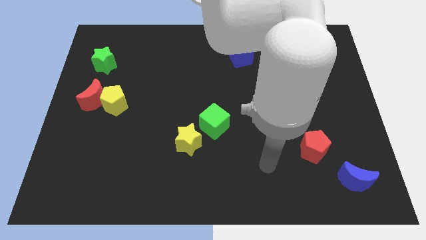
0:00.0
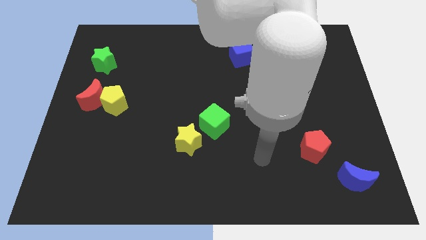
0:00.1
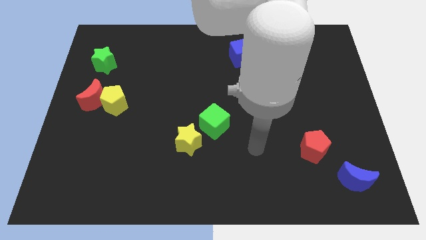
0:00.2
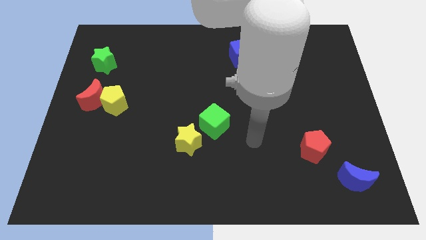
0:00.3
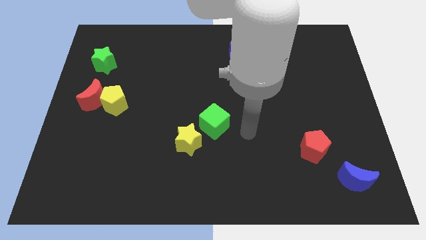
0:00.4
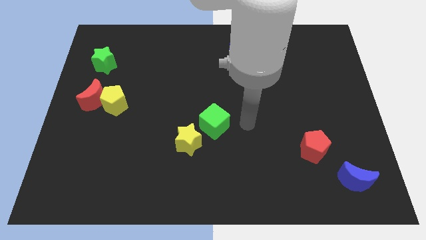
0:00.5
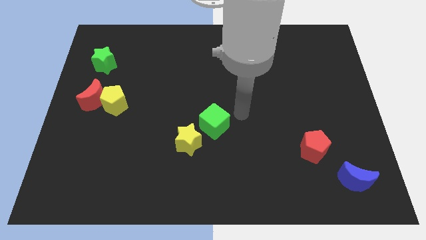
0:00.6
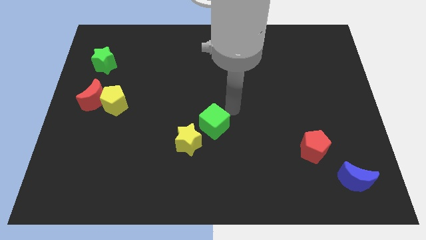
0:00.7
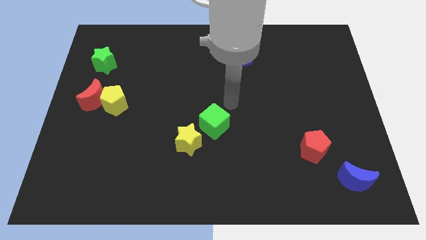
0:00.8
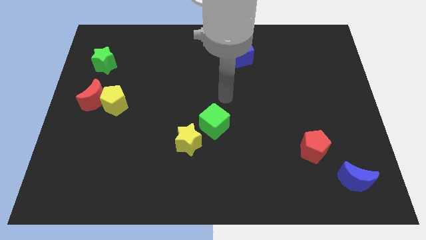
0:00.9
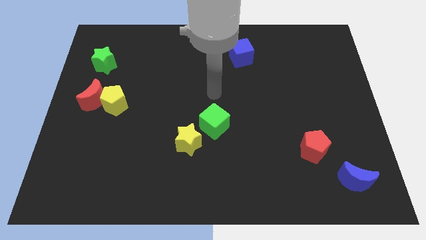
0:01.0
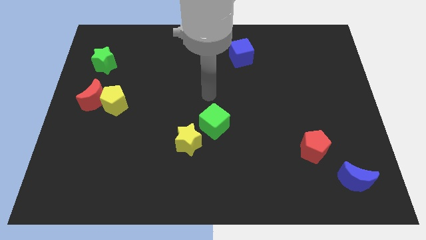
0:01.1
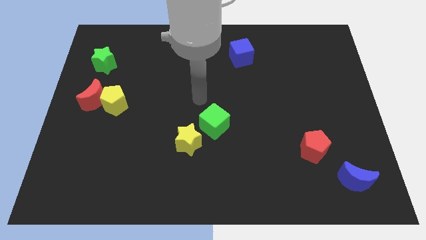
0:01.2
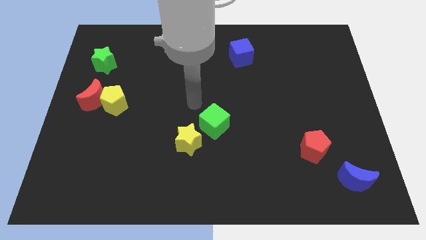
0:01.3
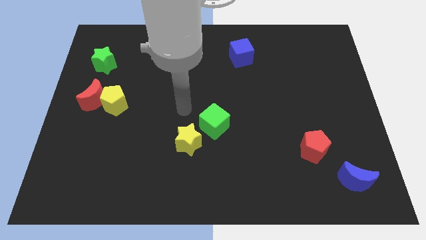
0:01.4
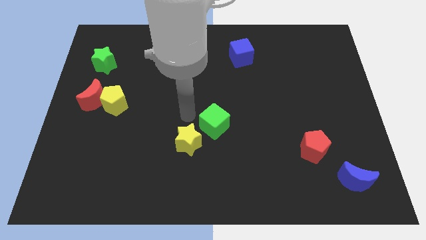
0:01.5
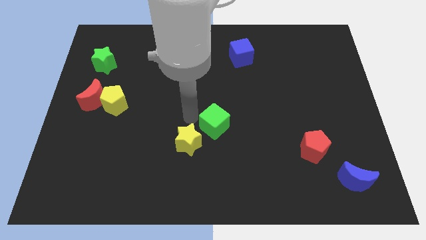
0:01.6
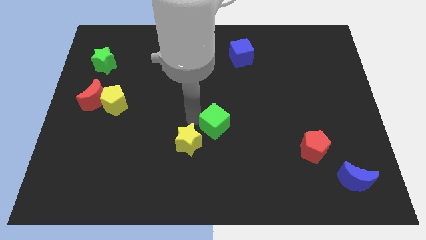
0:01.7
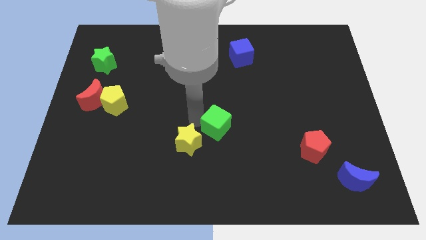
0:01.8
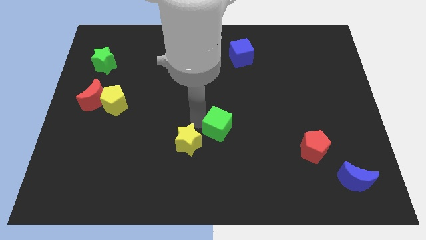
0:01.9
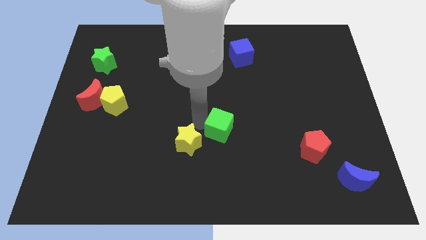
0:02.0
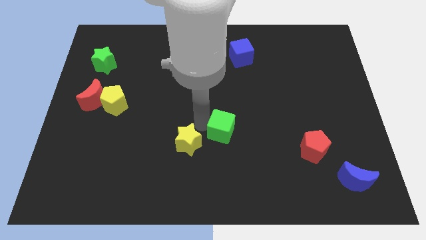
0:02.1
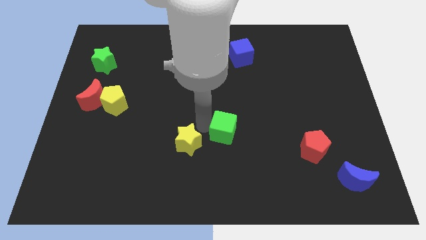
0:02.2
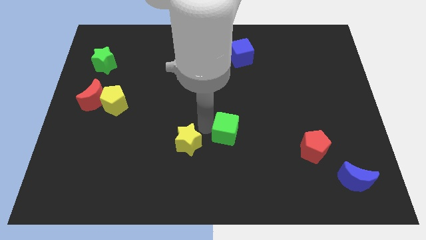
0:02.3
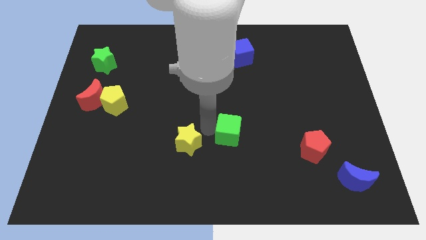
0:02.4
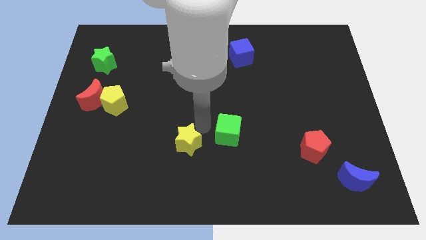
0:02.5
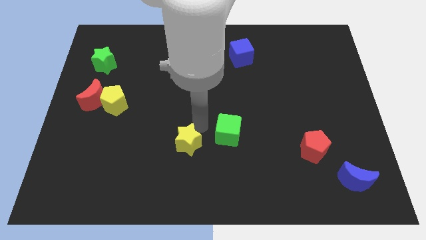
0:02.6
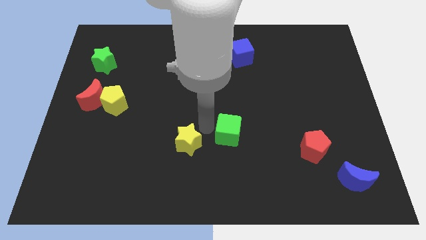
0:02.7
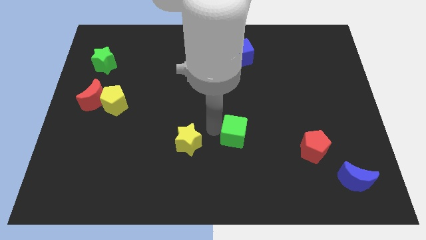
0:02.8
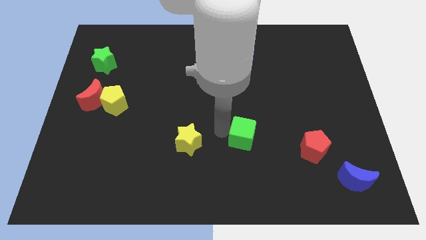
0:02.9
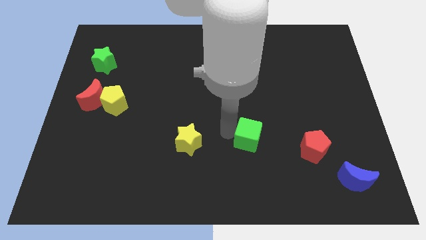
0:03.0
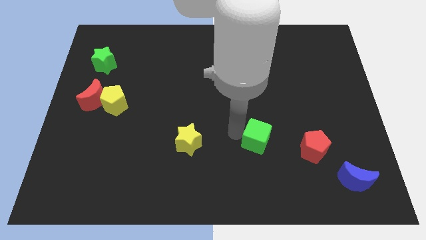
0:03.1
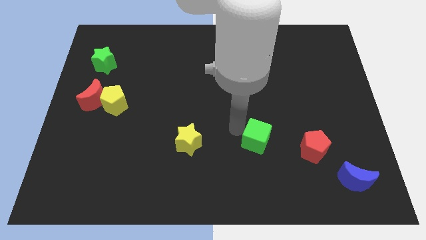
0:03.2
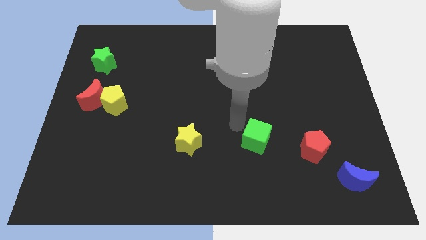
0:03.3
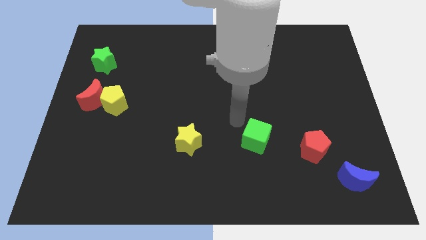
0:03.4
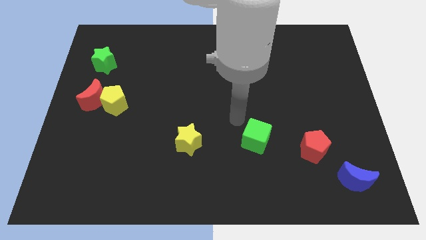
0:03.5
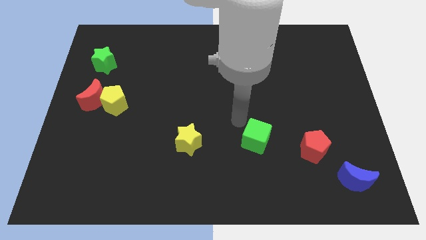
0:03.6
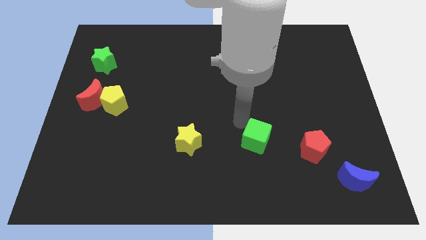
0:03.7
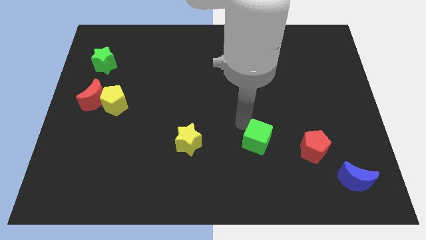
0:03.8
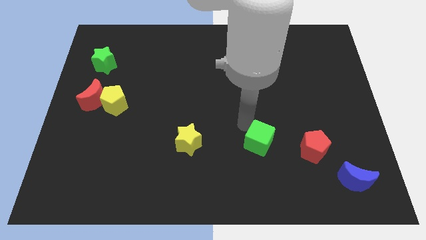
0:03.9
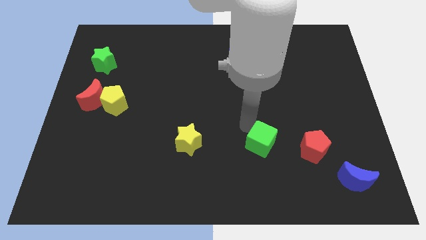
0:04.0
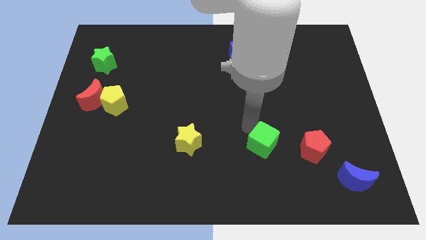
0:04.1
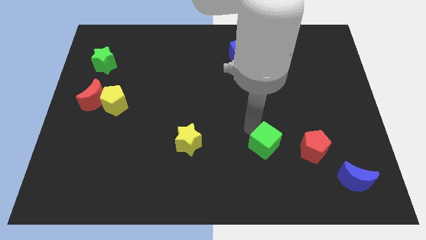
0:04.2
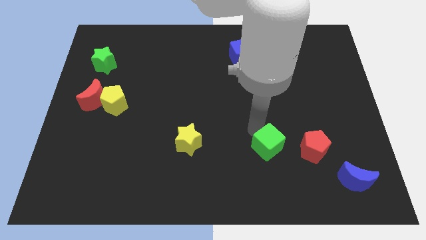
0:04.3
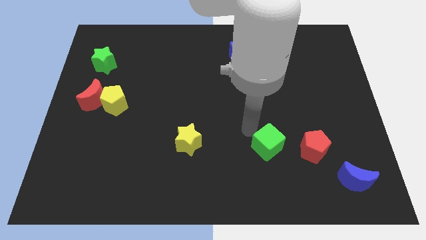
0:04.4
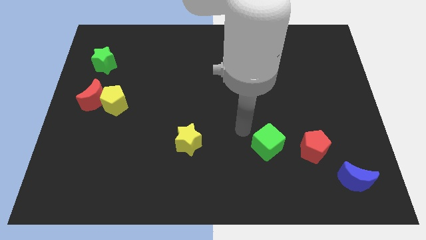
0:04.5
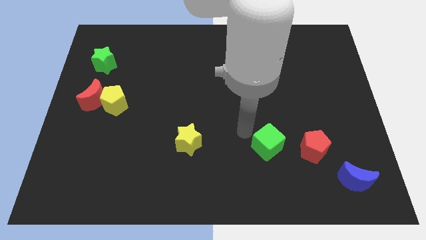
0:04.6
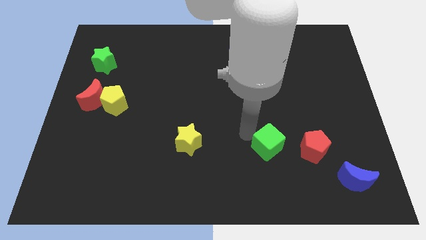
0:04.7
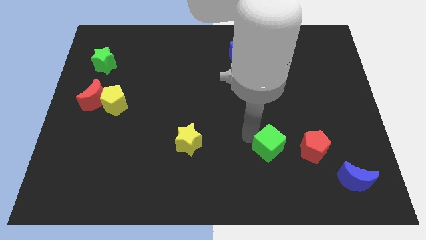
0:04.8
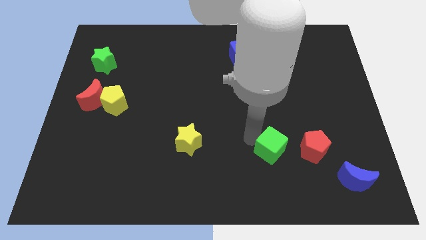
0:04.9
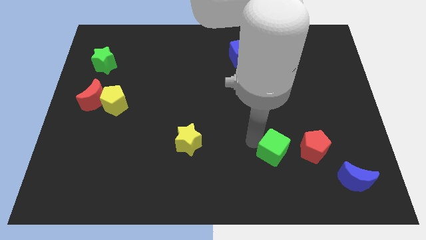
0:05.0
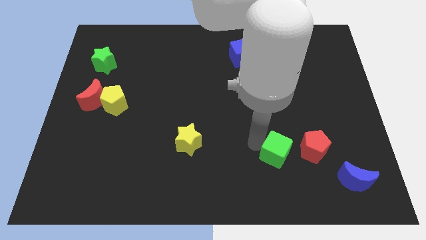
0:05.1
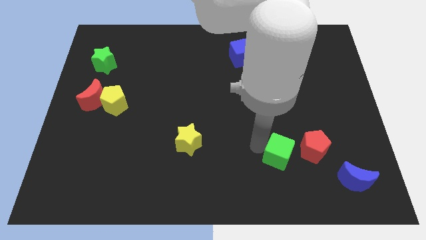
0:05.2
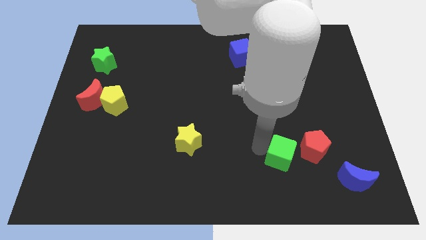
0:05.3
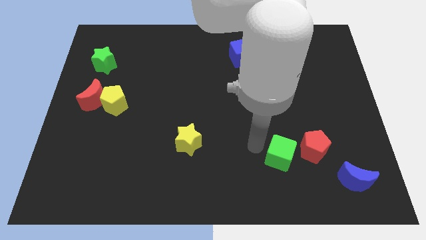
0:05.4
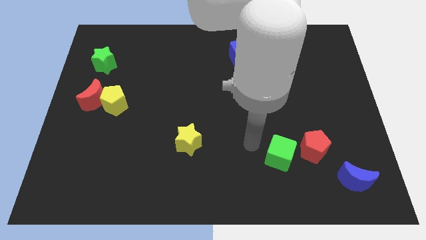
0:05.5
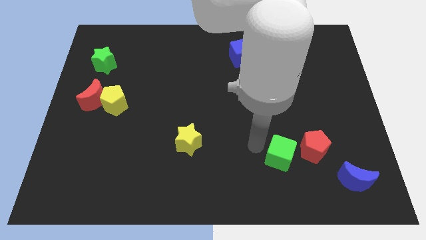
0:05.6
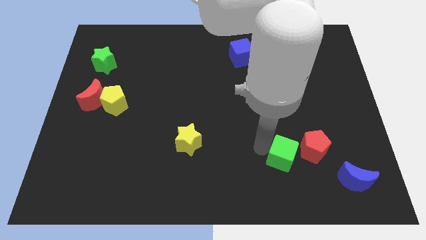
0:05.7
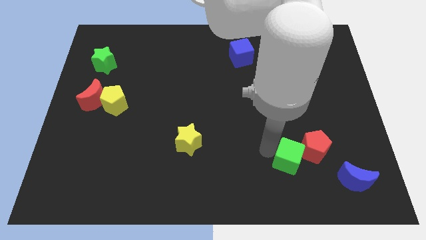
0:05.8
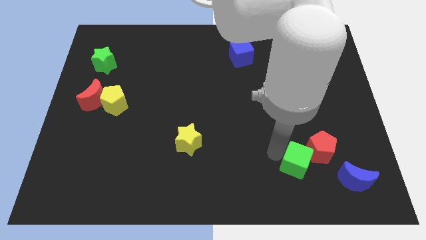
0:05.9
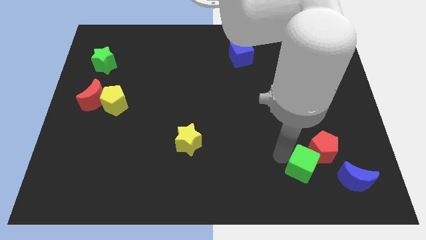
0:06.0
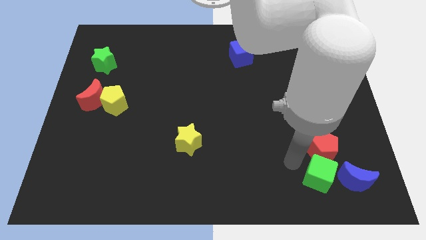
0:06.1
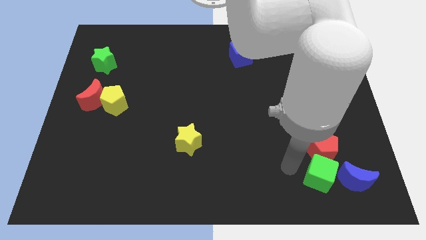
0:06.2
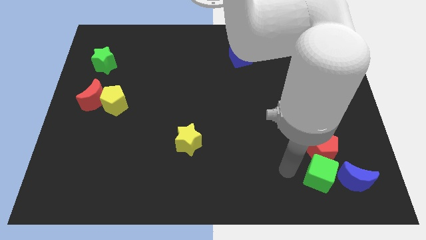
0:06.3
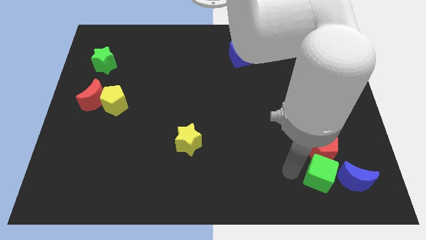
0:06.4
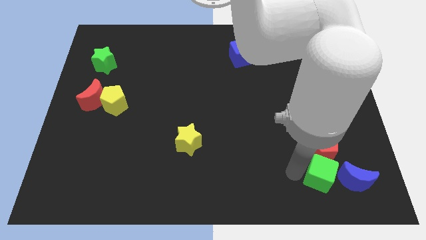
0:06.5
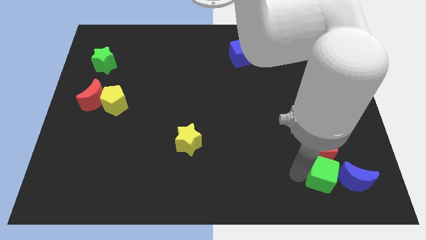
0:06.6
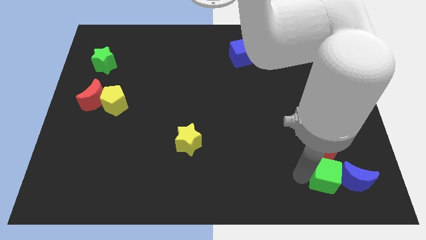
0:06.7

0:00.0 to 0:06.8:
slide the green cube close to the blue moon

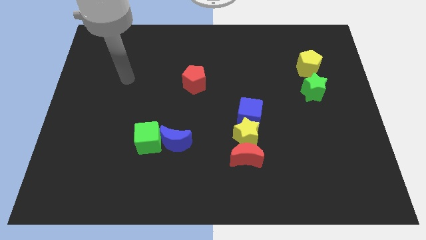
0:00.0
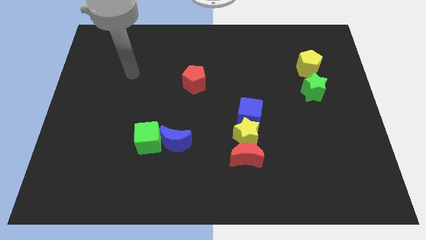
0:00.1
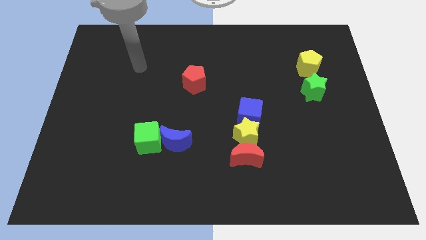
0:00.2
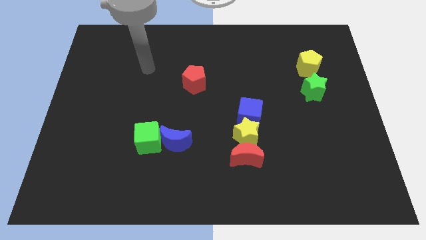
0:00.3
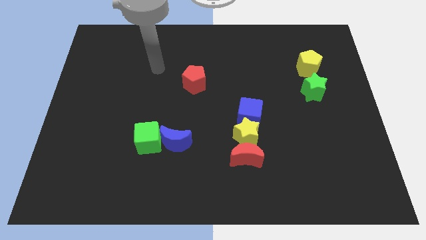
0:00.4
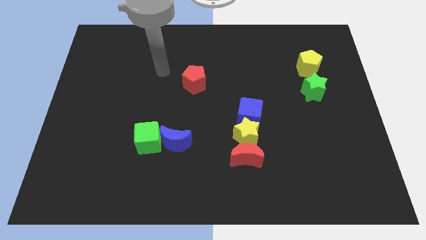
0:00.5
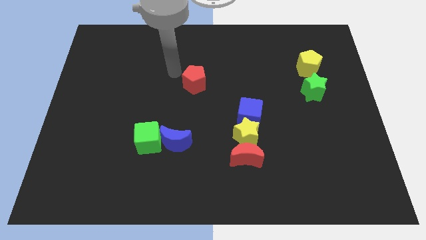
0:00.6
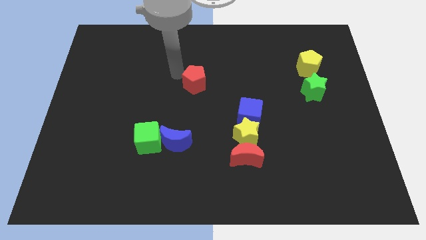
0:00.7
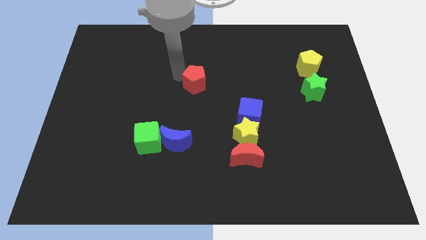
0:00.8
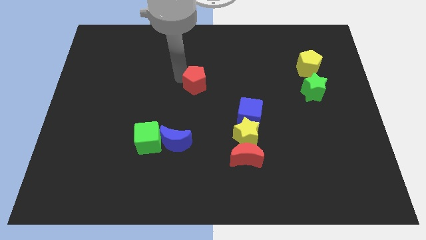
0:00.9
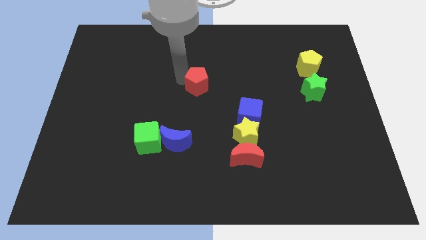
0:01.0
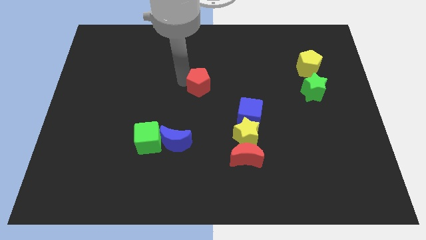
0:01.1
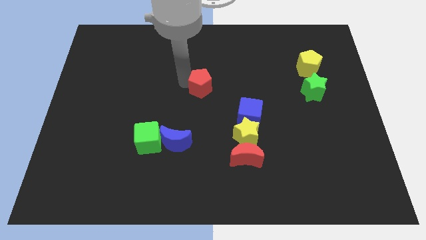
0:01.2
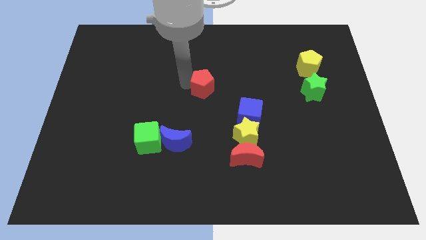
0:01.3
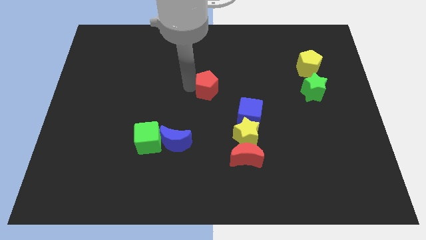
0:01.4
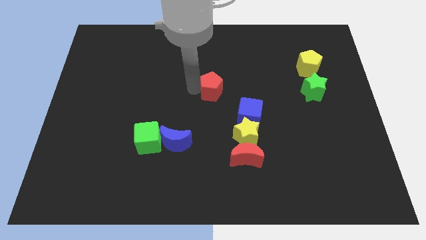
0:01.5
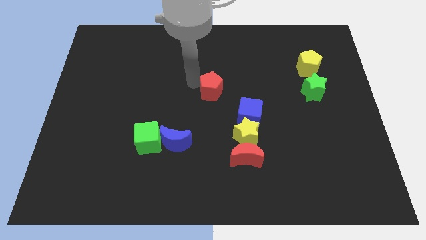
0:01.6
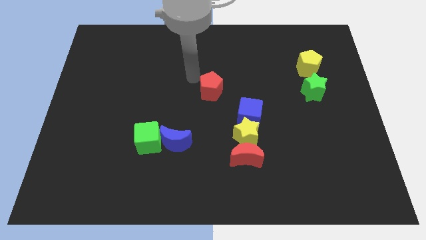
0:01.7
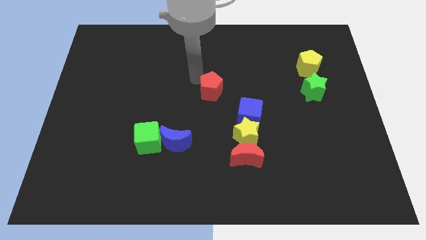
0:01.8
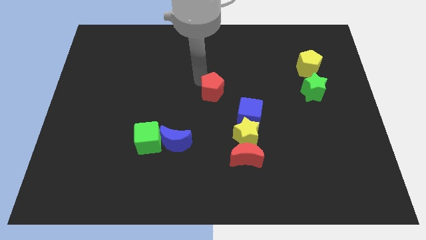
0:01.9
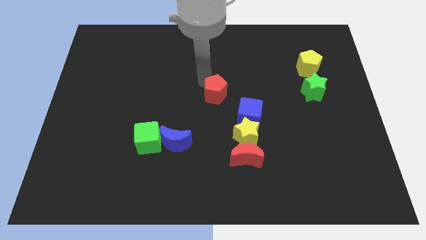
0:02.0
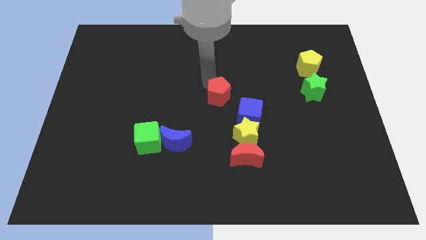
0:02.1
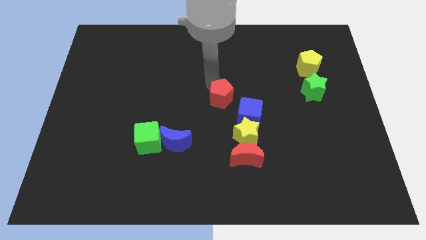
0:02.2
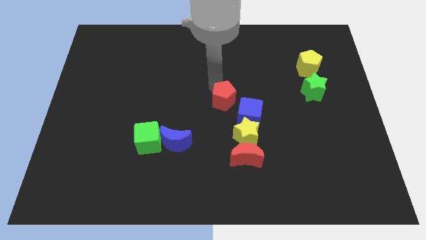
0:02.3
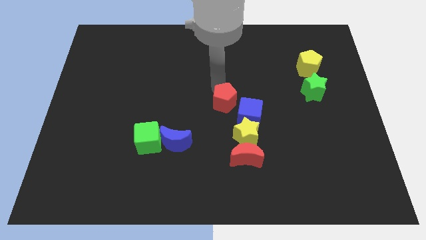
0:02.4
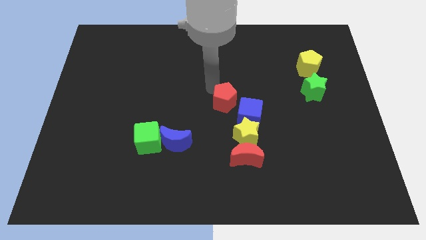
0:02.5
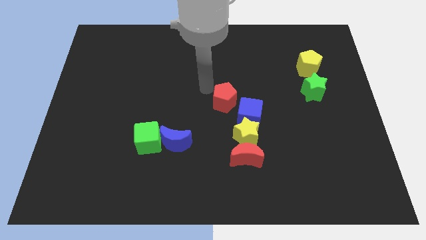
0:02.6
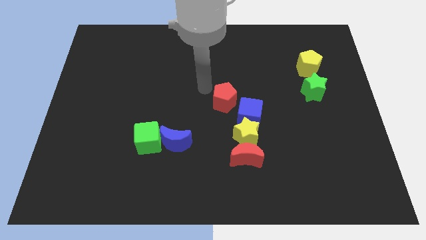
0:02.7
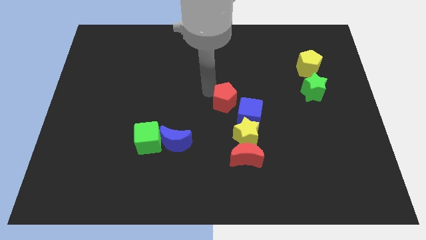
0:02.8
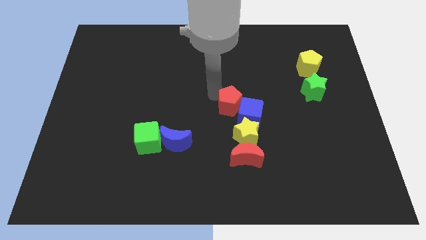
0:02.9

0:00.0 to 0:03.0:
push the red pentagon to the blue cube
